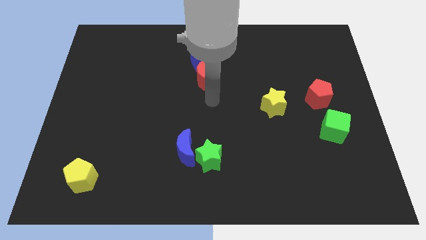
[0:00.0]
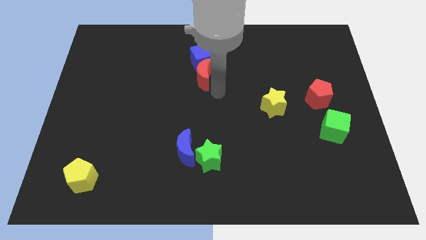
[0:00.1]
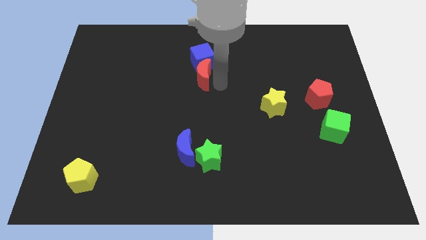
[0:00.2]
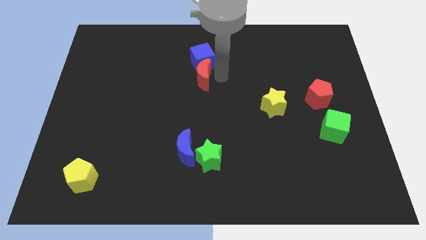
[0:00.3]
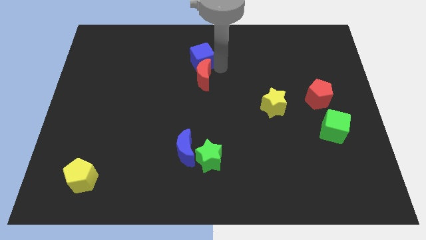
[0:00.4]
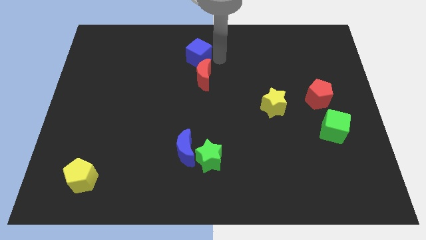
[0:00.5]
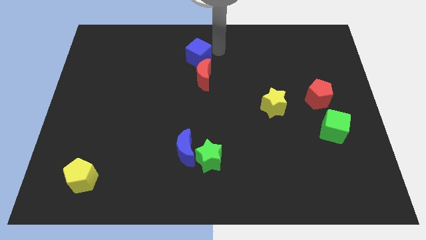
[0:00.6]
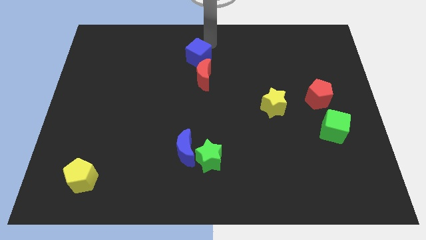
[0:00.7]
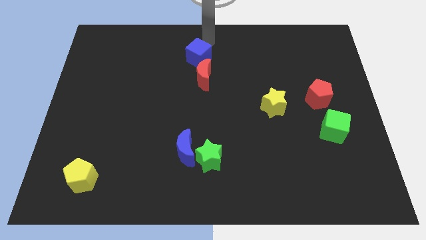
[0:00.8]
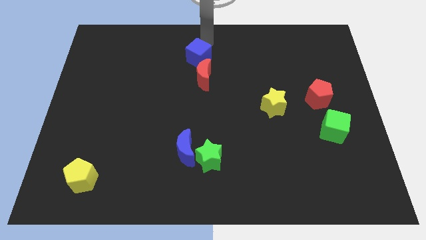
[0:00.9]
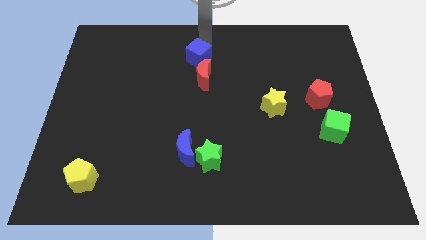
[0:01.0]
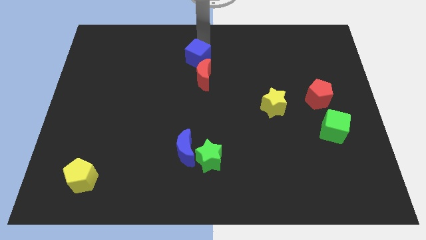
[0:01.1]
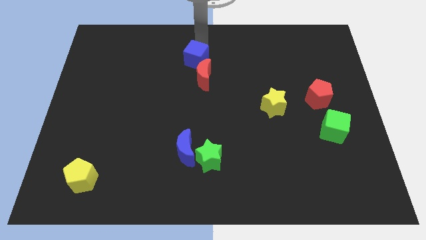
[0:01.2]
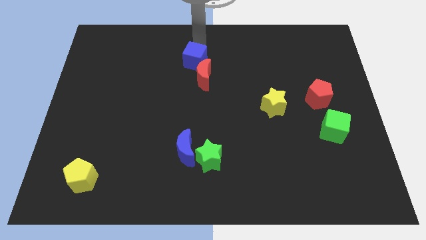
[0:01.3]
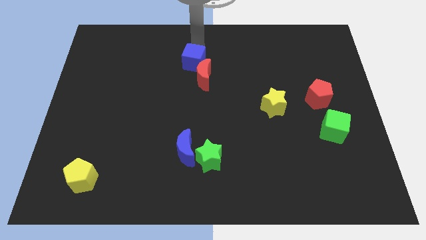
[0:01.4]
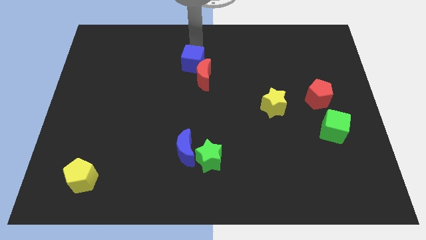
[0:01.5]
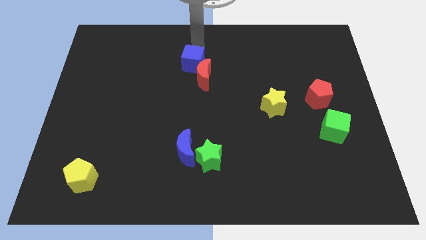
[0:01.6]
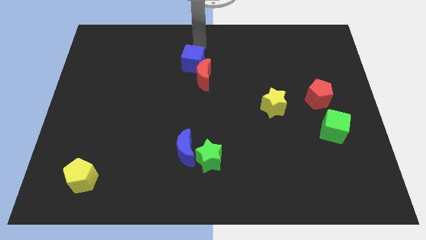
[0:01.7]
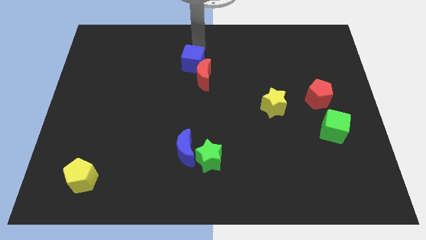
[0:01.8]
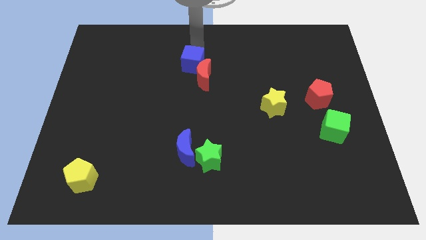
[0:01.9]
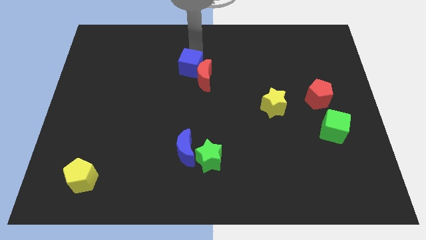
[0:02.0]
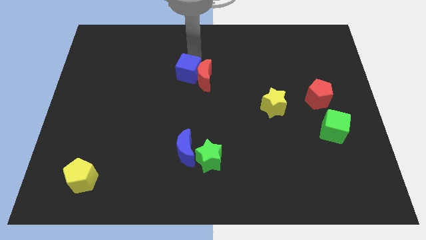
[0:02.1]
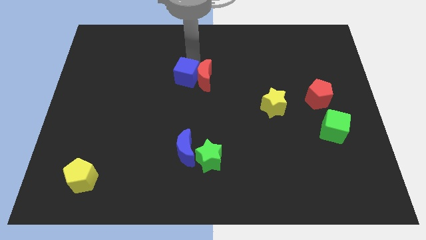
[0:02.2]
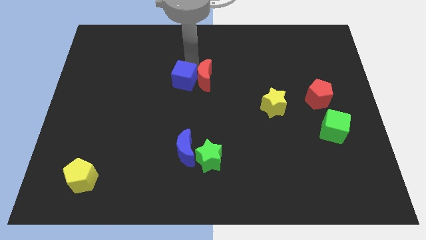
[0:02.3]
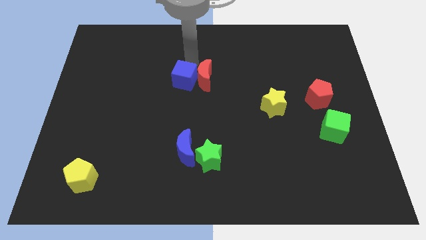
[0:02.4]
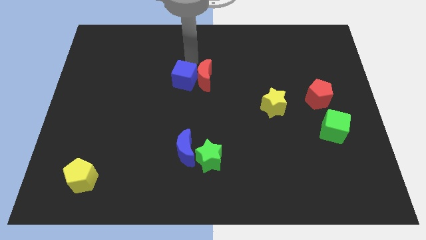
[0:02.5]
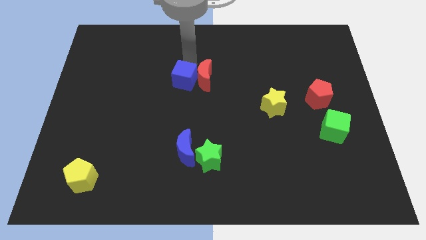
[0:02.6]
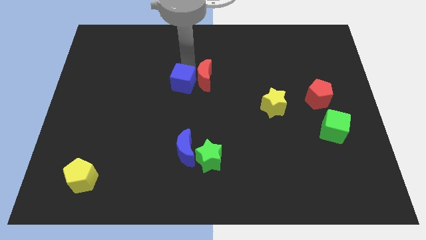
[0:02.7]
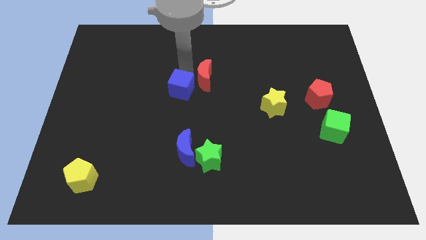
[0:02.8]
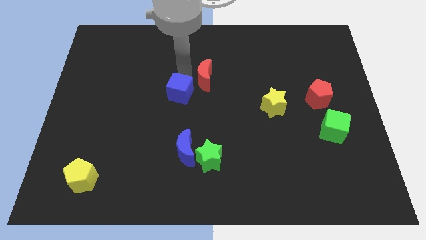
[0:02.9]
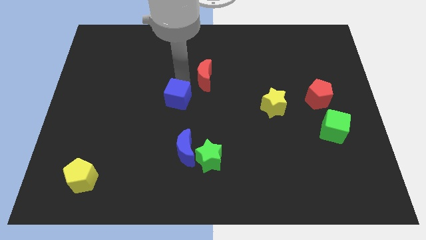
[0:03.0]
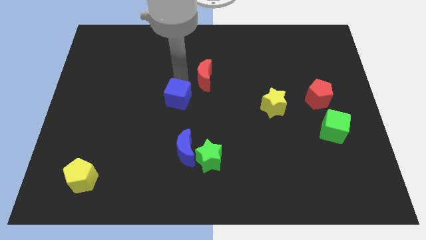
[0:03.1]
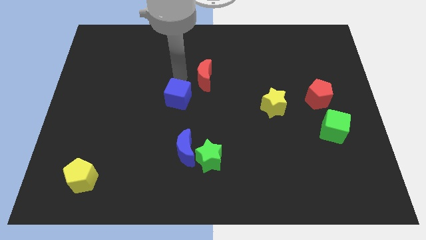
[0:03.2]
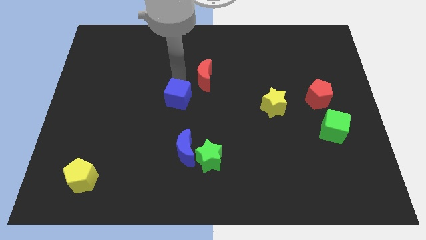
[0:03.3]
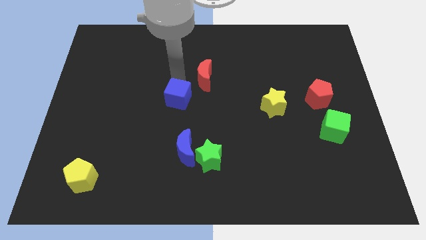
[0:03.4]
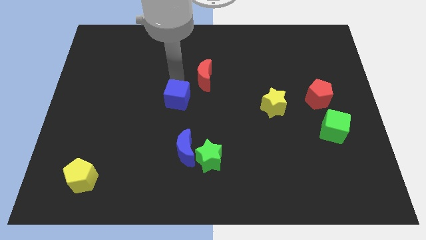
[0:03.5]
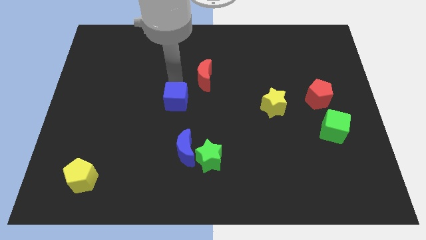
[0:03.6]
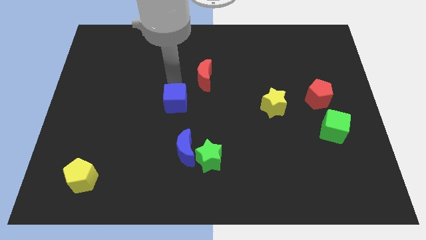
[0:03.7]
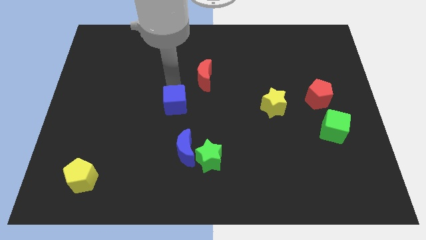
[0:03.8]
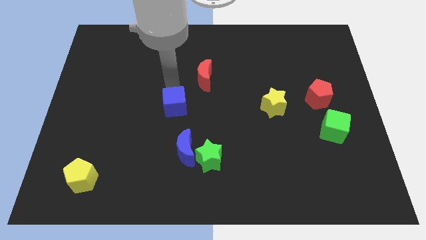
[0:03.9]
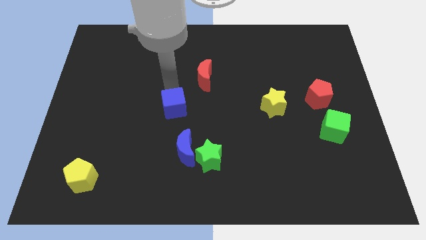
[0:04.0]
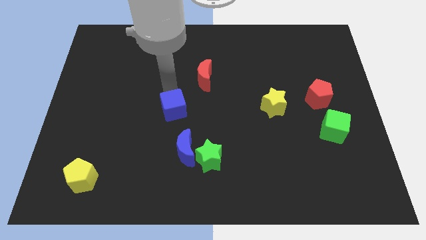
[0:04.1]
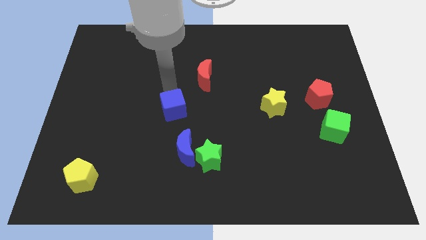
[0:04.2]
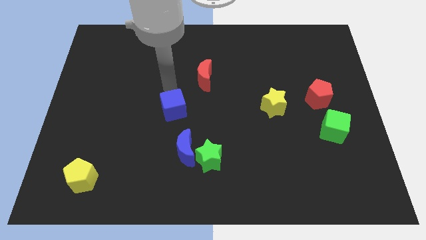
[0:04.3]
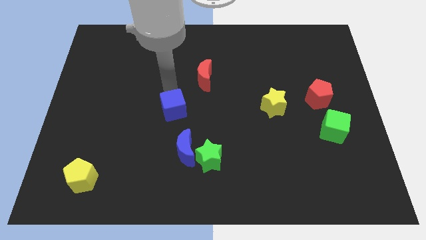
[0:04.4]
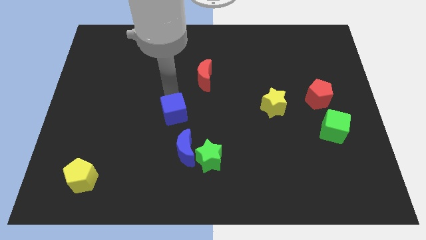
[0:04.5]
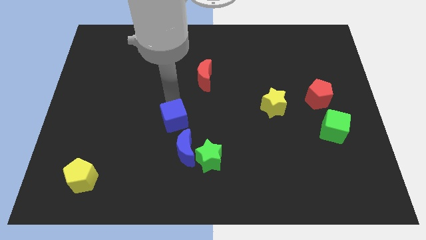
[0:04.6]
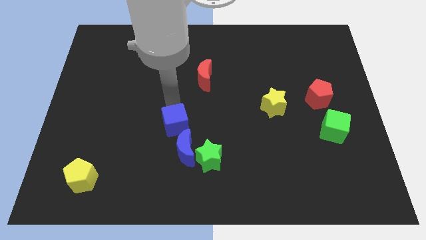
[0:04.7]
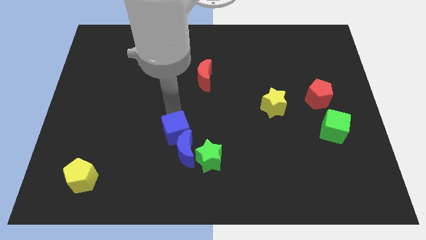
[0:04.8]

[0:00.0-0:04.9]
slide the blue cube close to the blue moon

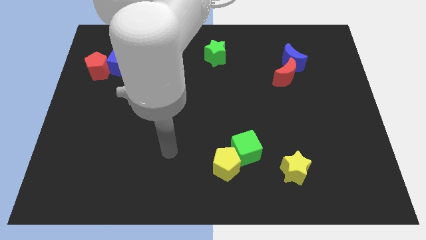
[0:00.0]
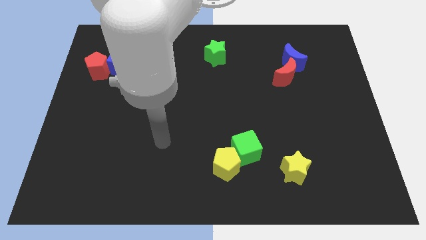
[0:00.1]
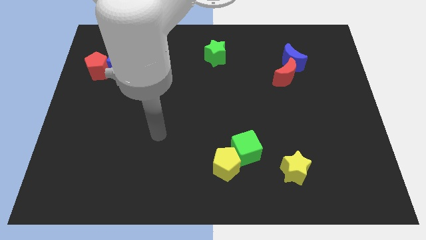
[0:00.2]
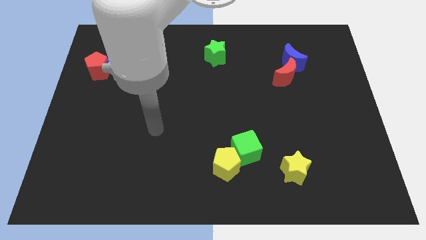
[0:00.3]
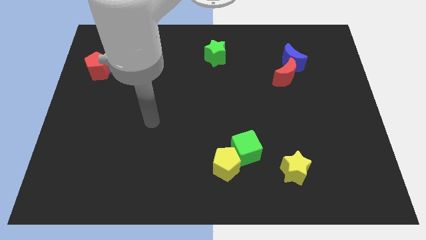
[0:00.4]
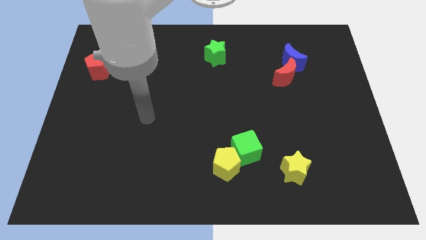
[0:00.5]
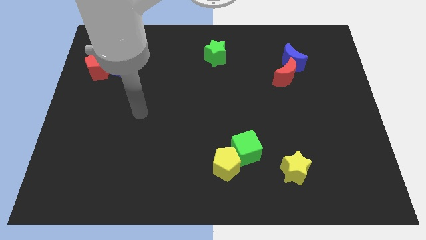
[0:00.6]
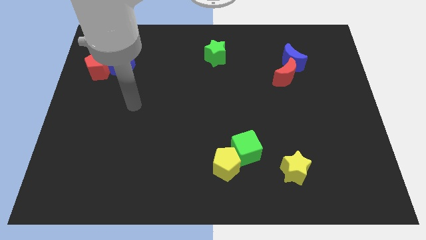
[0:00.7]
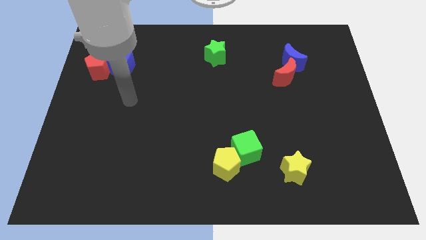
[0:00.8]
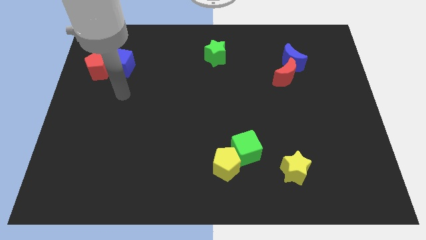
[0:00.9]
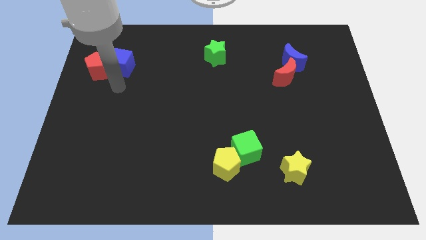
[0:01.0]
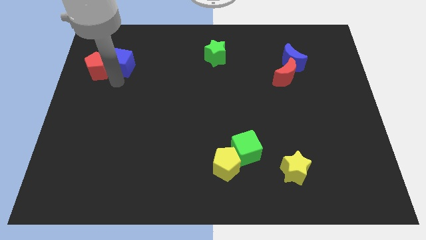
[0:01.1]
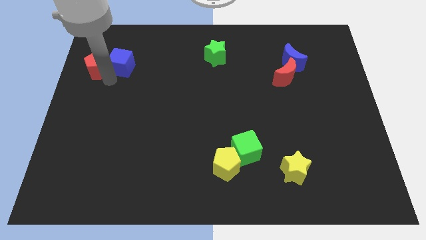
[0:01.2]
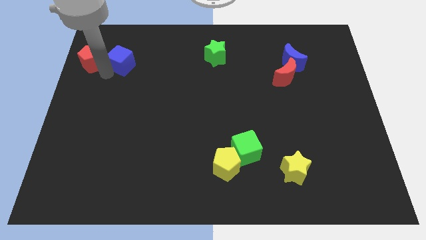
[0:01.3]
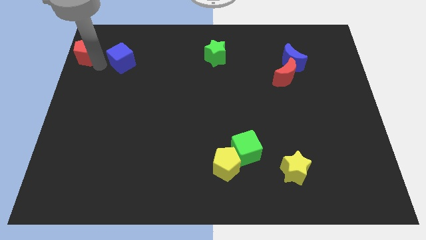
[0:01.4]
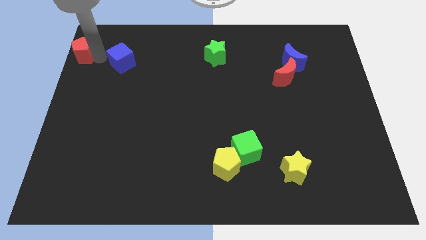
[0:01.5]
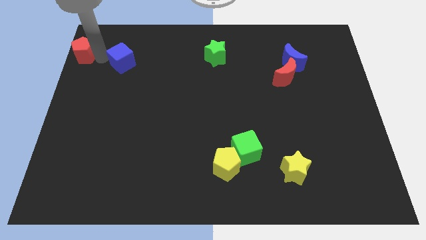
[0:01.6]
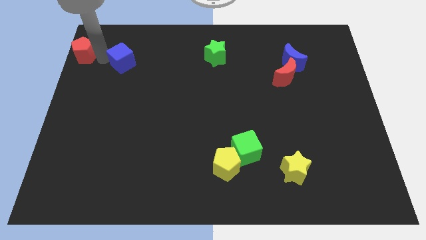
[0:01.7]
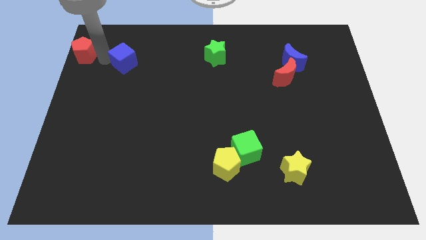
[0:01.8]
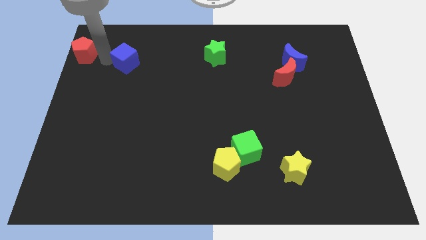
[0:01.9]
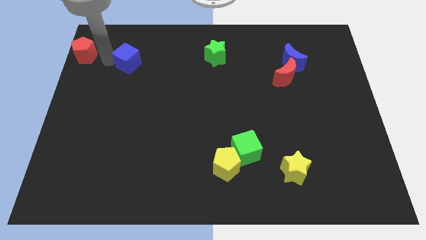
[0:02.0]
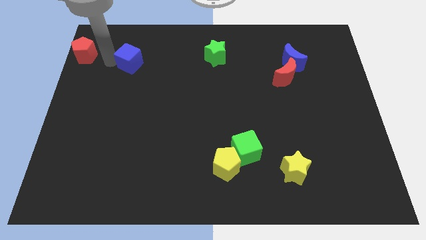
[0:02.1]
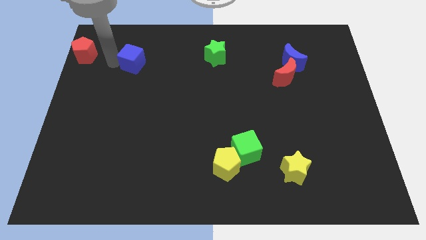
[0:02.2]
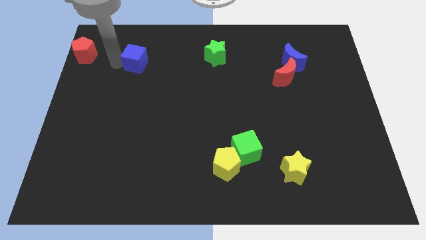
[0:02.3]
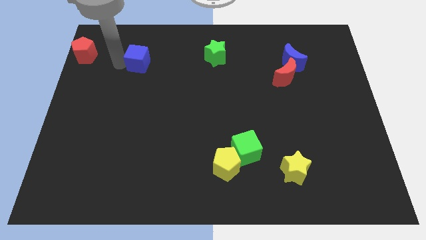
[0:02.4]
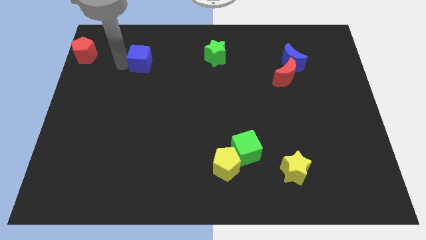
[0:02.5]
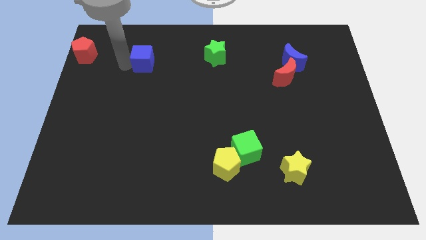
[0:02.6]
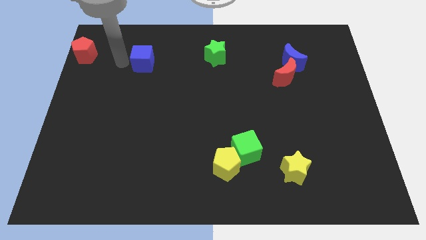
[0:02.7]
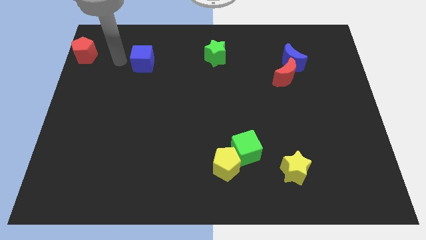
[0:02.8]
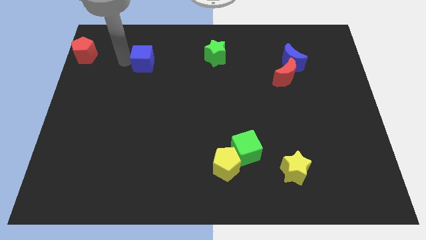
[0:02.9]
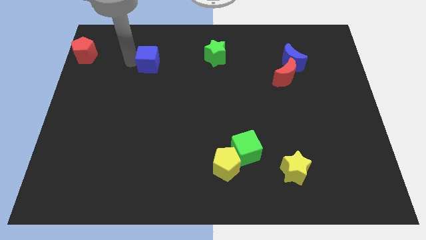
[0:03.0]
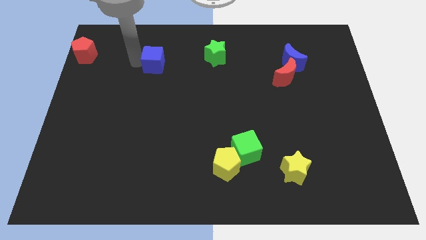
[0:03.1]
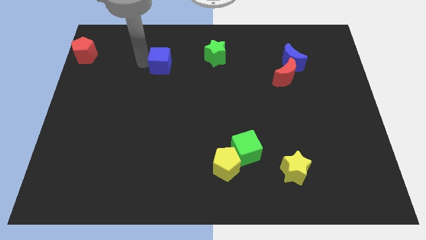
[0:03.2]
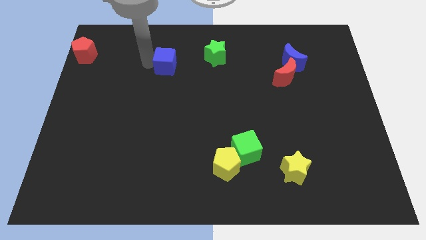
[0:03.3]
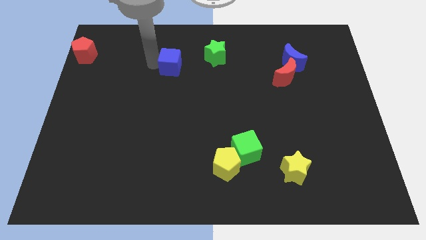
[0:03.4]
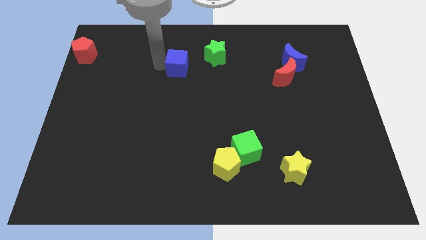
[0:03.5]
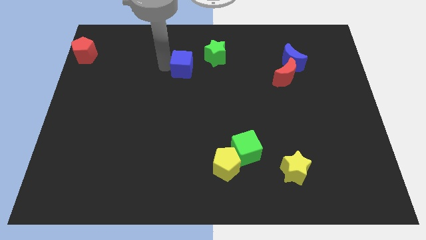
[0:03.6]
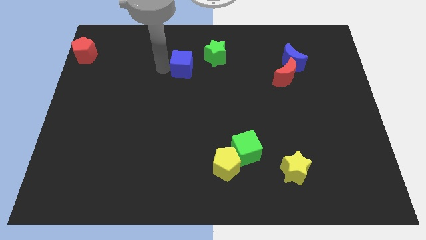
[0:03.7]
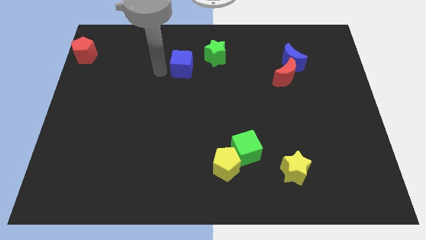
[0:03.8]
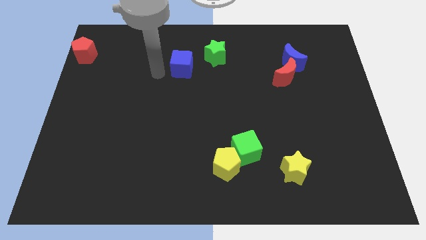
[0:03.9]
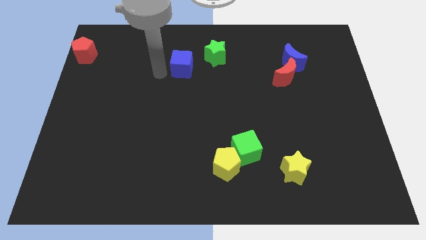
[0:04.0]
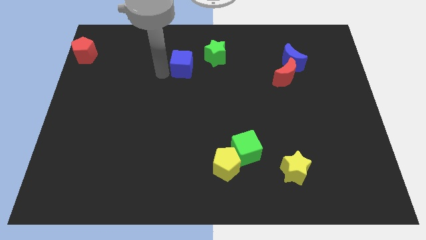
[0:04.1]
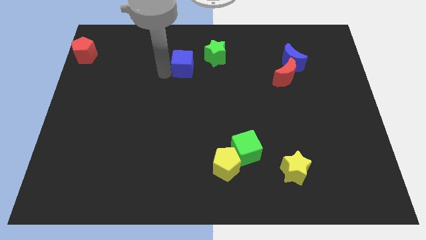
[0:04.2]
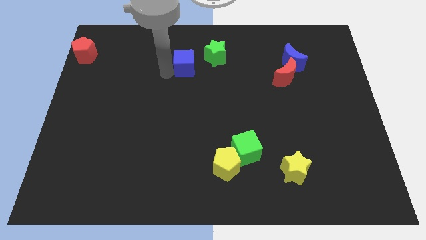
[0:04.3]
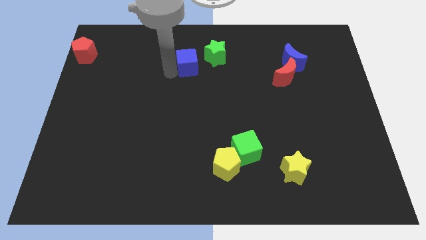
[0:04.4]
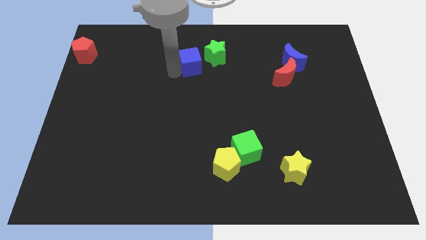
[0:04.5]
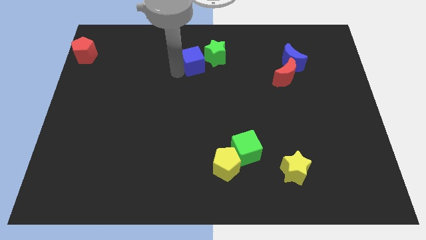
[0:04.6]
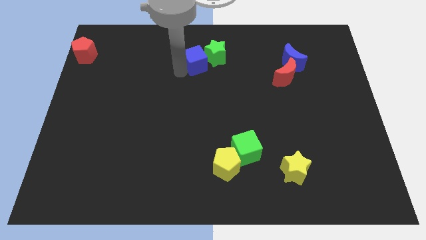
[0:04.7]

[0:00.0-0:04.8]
put the blue cube close to the green star
